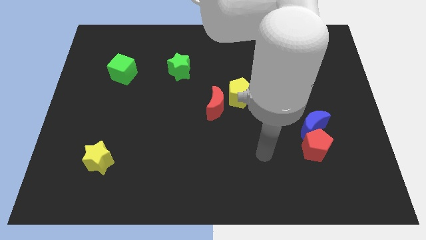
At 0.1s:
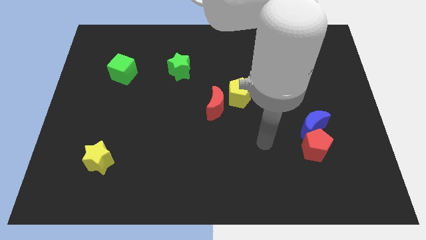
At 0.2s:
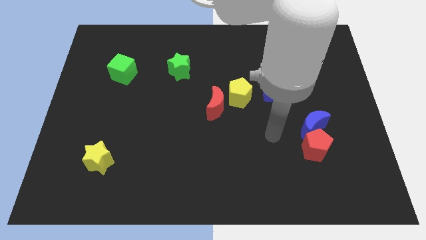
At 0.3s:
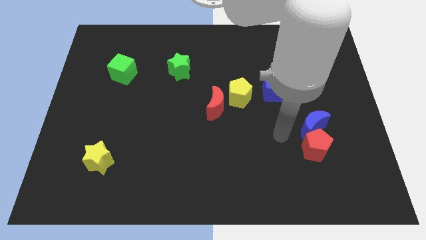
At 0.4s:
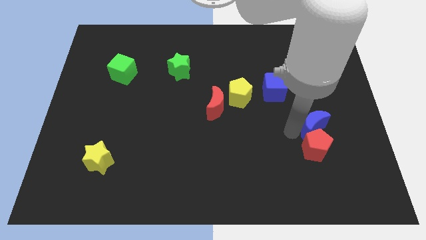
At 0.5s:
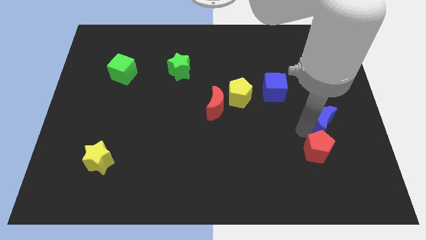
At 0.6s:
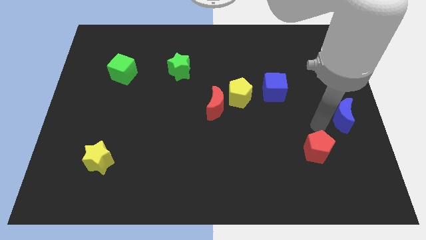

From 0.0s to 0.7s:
move the red pentagon away from the blue moon

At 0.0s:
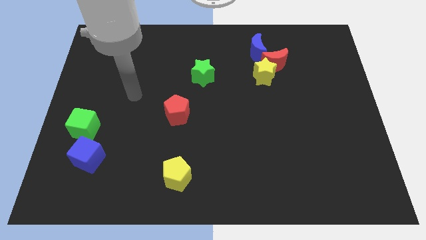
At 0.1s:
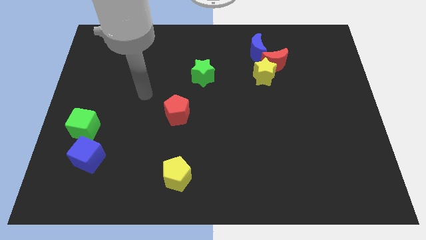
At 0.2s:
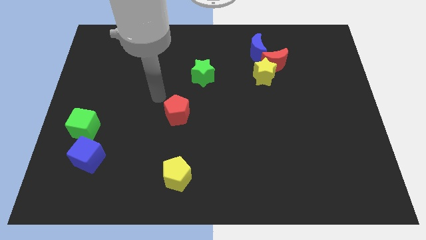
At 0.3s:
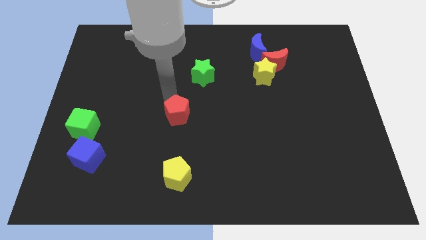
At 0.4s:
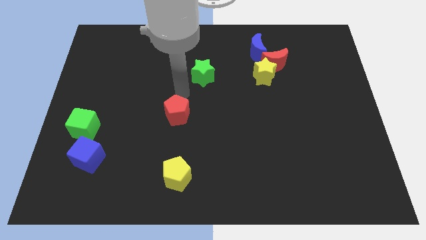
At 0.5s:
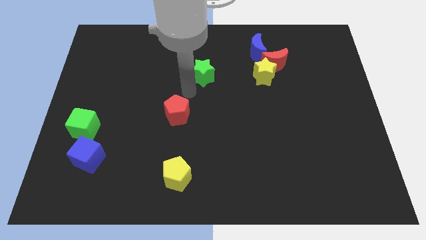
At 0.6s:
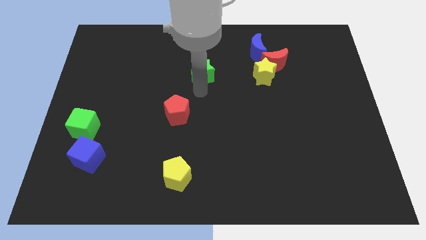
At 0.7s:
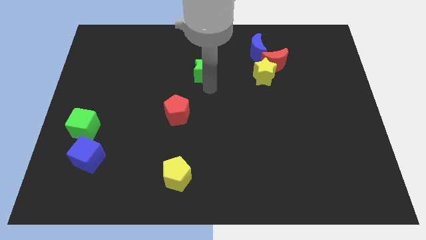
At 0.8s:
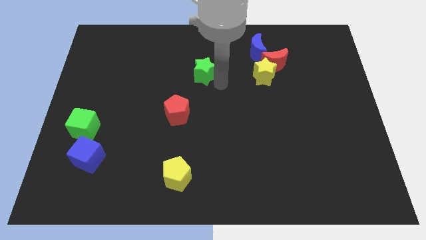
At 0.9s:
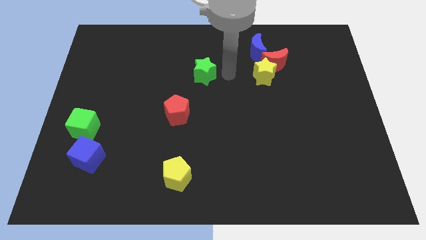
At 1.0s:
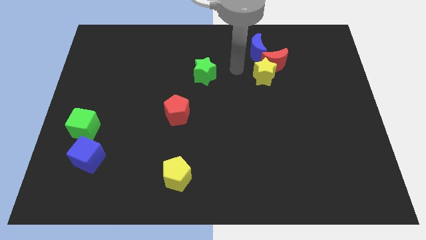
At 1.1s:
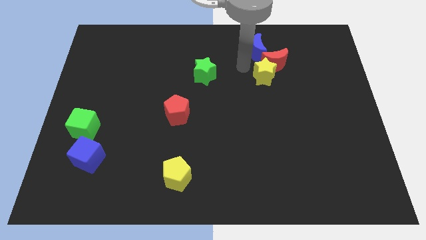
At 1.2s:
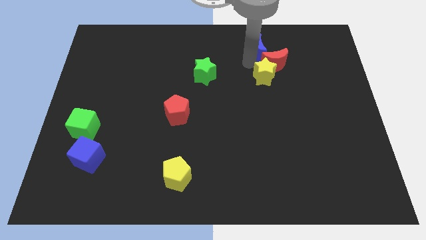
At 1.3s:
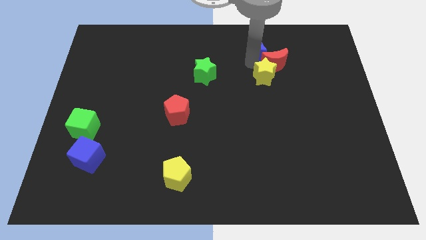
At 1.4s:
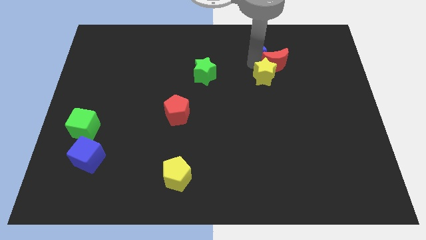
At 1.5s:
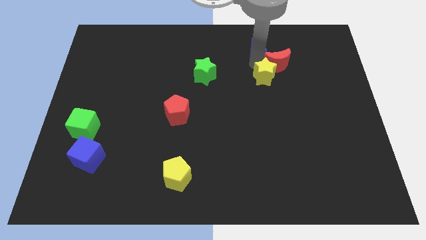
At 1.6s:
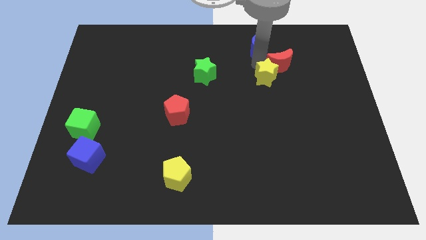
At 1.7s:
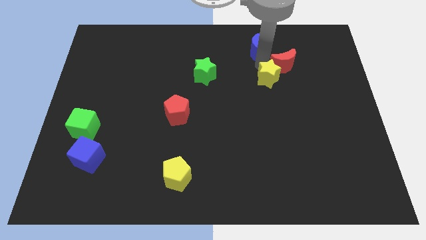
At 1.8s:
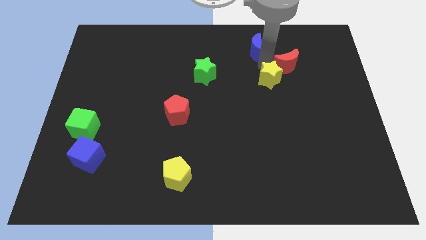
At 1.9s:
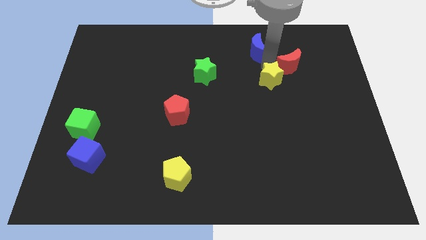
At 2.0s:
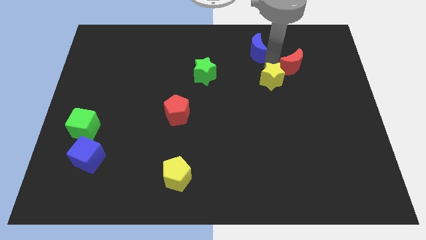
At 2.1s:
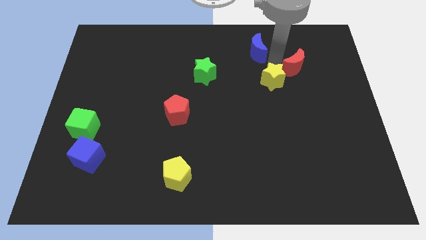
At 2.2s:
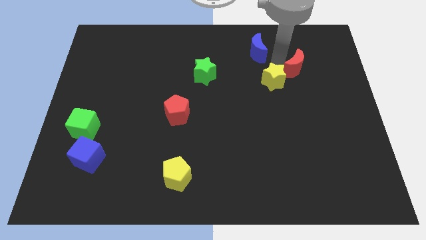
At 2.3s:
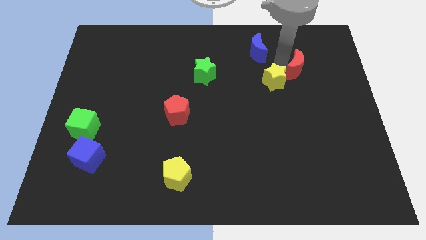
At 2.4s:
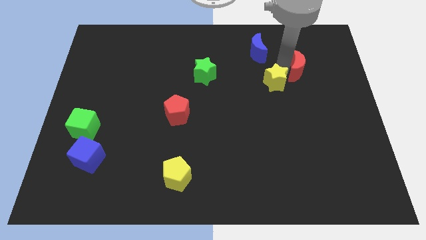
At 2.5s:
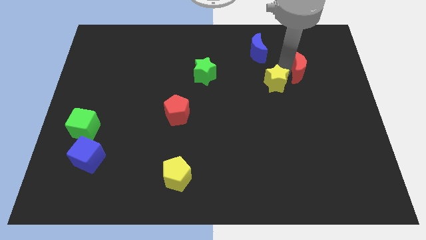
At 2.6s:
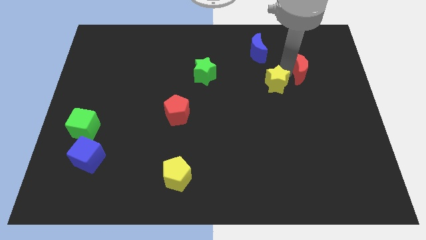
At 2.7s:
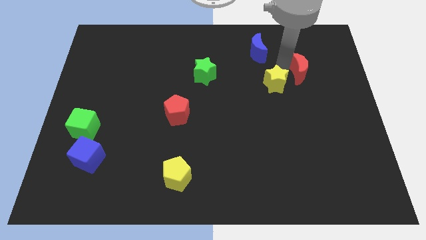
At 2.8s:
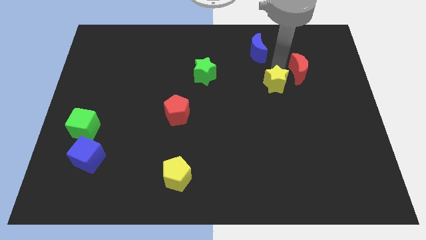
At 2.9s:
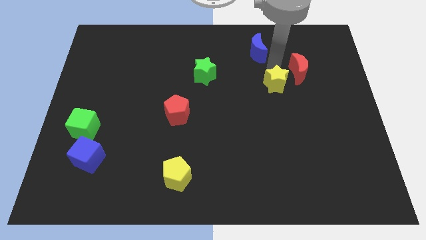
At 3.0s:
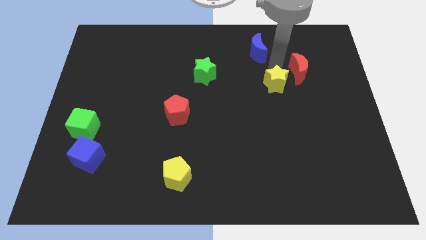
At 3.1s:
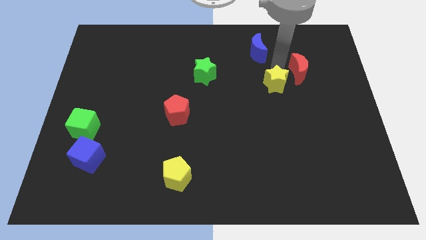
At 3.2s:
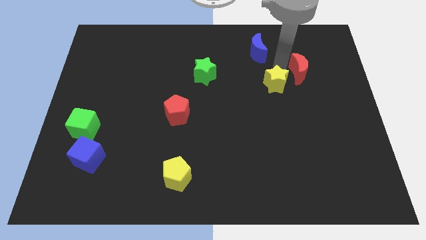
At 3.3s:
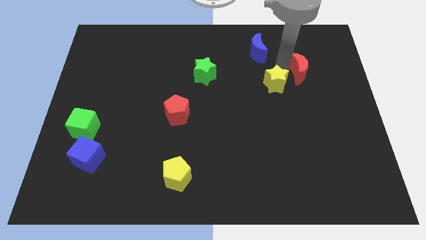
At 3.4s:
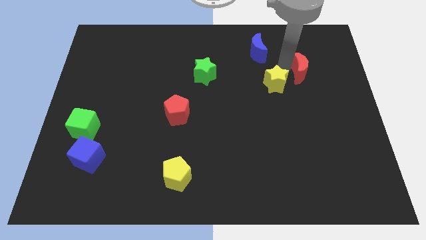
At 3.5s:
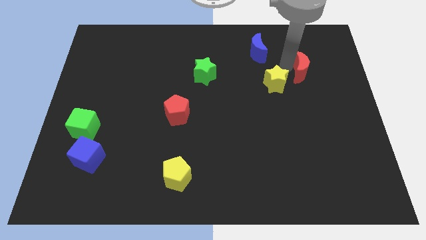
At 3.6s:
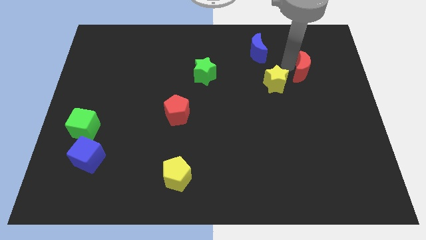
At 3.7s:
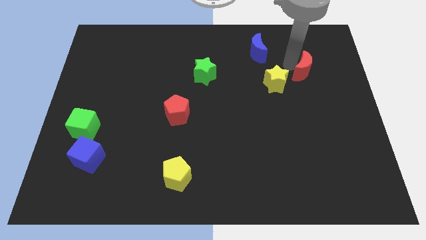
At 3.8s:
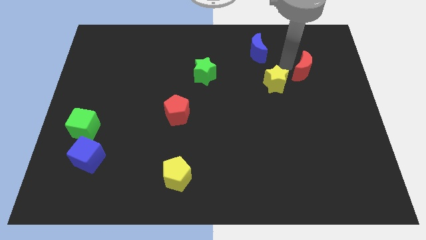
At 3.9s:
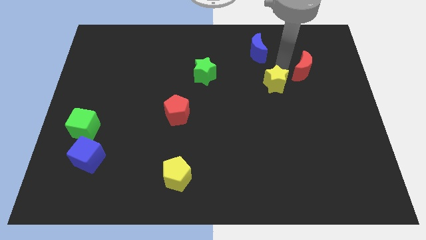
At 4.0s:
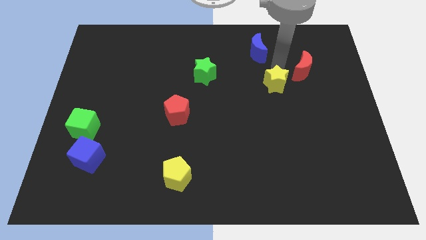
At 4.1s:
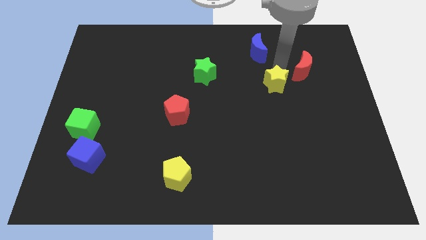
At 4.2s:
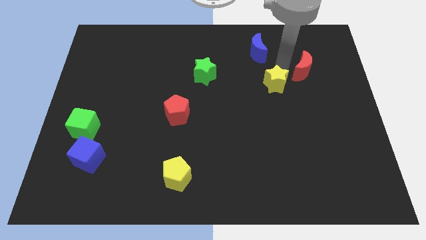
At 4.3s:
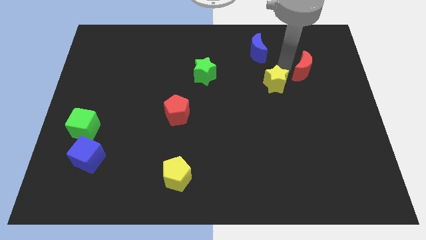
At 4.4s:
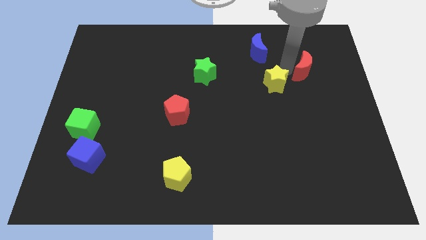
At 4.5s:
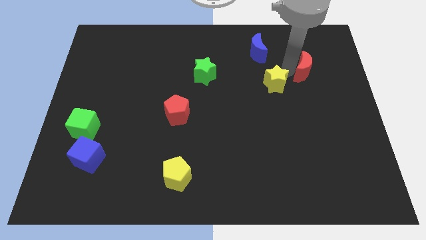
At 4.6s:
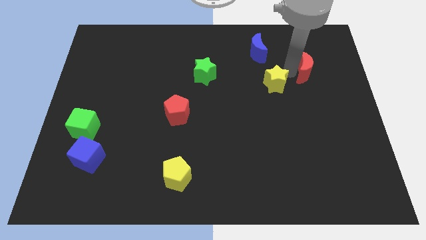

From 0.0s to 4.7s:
separate the red moon from the yellow star and blue moon

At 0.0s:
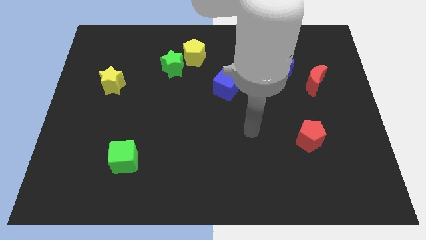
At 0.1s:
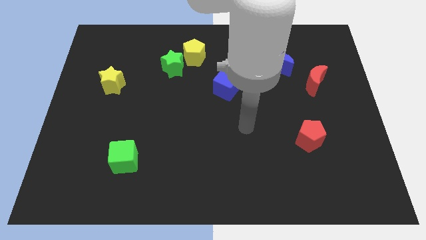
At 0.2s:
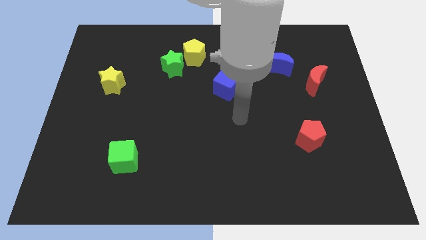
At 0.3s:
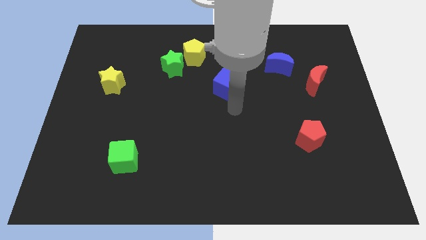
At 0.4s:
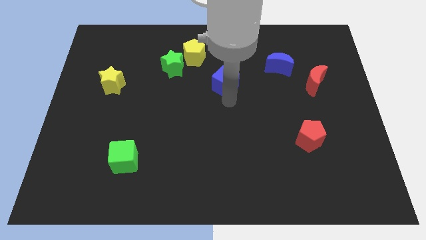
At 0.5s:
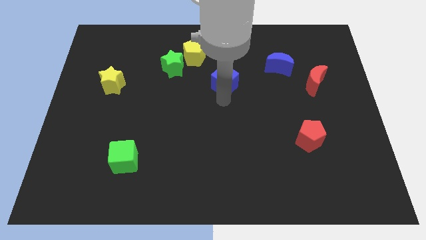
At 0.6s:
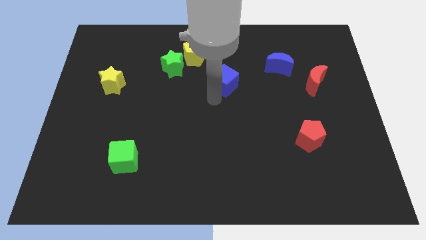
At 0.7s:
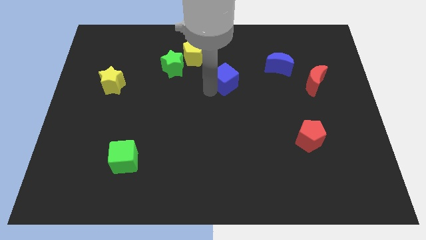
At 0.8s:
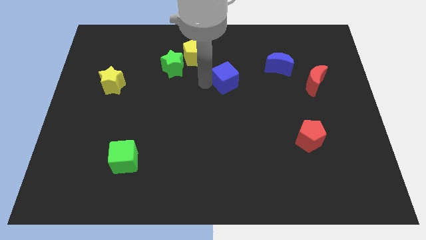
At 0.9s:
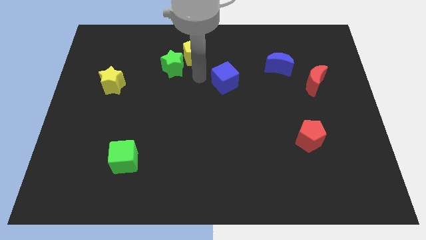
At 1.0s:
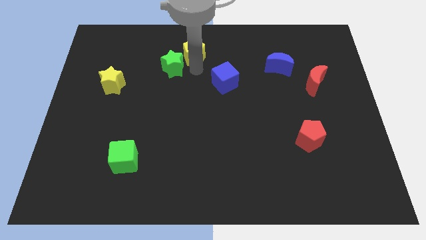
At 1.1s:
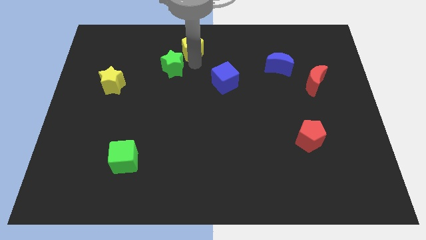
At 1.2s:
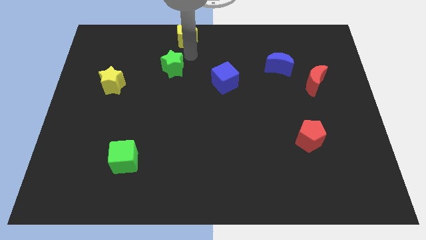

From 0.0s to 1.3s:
separate the green star from the yellow pentagon

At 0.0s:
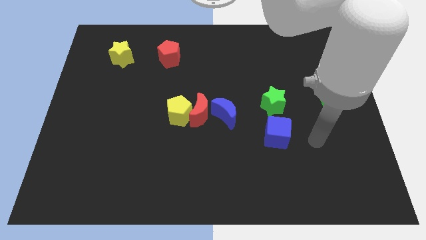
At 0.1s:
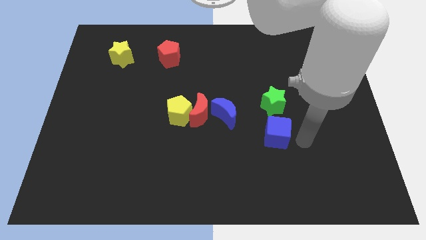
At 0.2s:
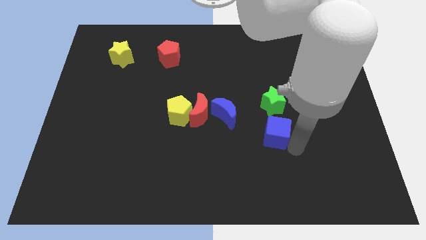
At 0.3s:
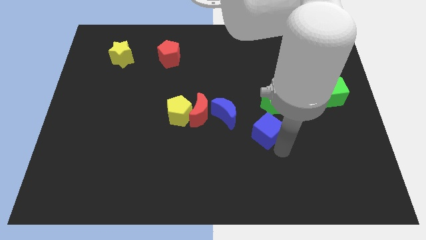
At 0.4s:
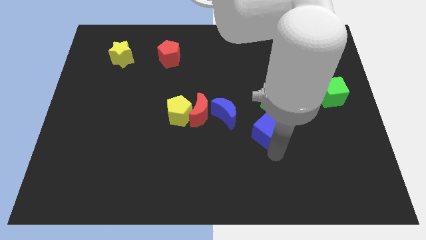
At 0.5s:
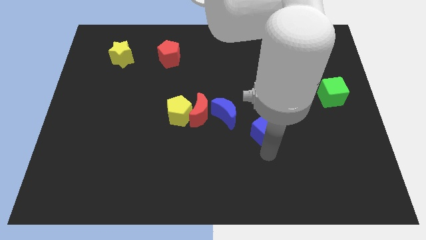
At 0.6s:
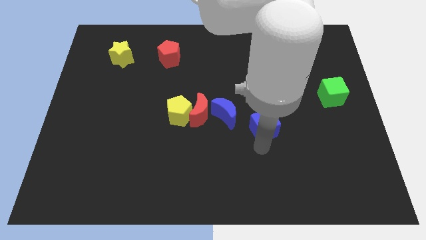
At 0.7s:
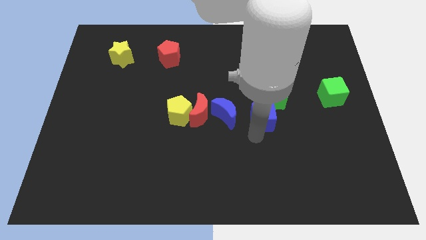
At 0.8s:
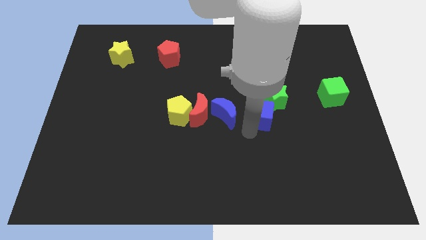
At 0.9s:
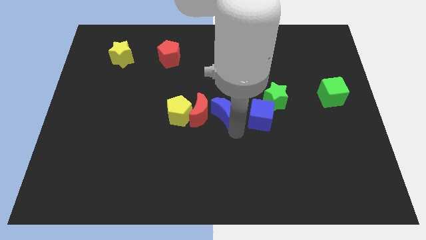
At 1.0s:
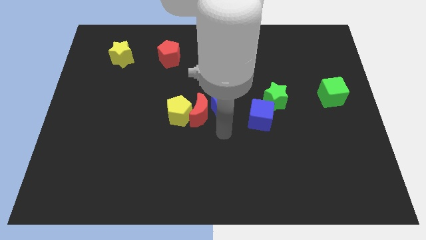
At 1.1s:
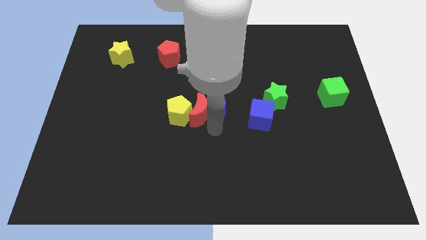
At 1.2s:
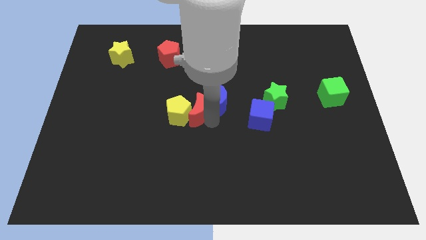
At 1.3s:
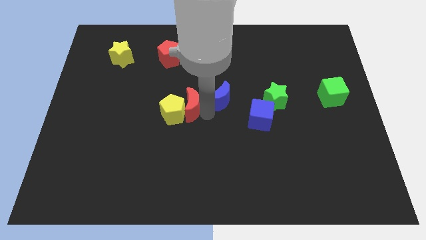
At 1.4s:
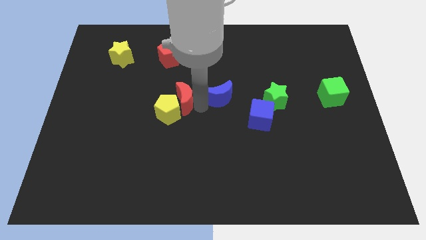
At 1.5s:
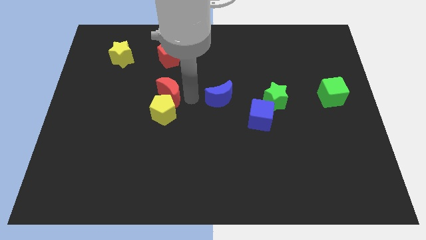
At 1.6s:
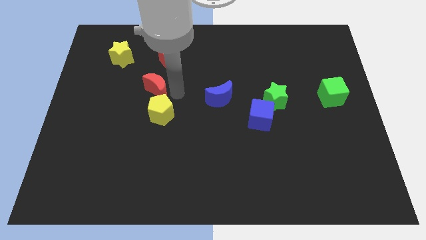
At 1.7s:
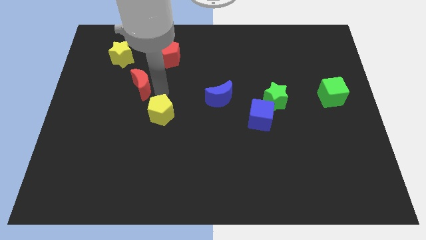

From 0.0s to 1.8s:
pull the yellow pentagon apart from the red moon

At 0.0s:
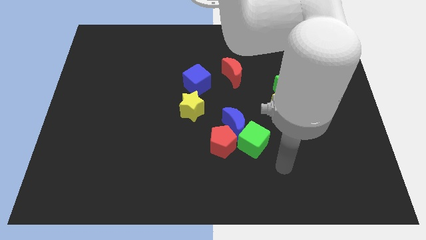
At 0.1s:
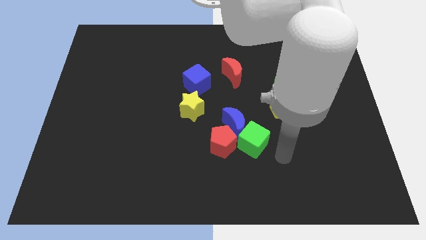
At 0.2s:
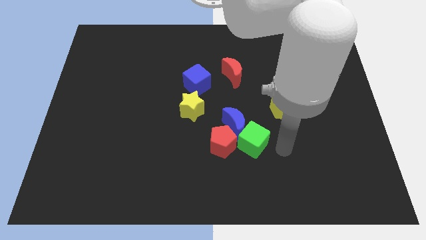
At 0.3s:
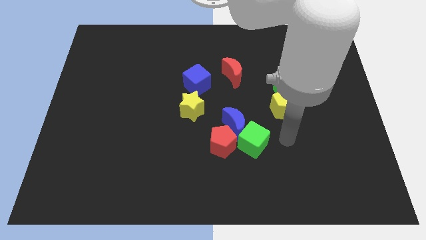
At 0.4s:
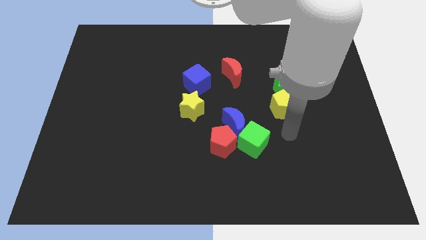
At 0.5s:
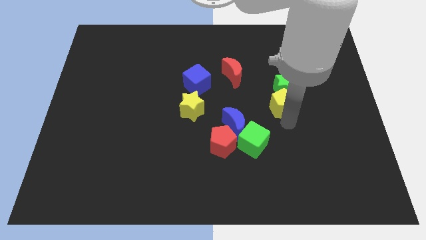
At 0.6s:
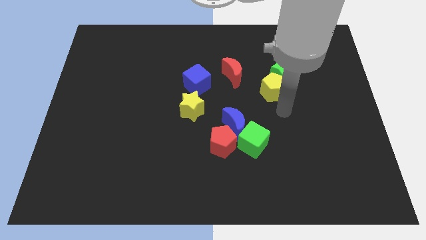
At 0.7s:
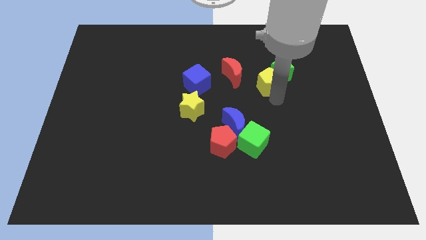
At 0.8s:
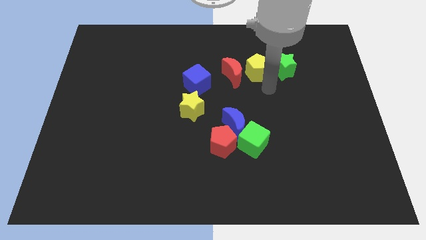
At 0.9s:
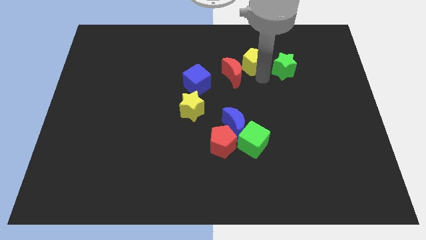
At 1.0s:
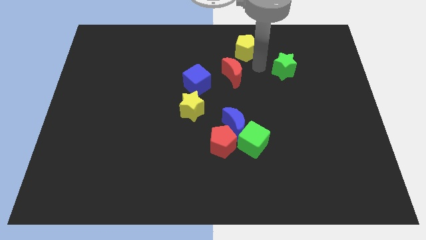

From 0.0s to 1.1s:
pull the green star apart from the yellow pentagon
